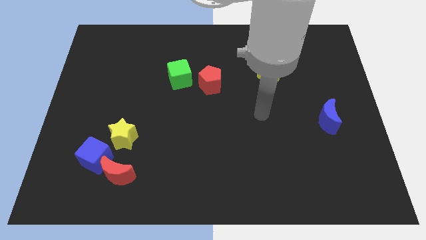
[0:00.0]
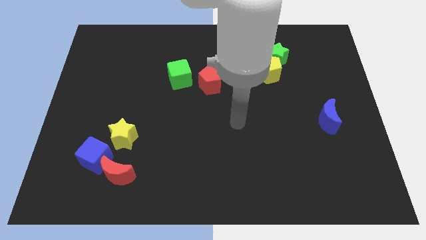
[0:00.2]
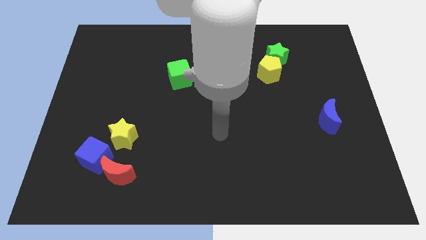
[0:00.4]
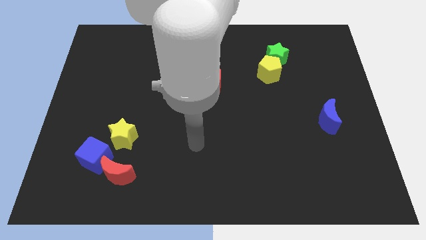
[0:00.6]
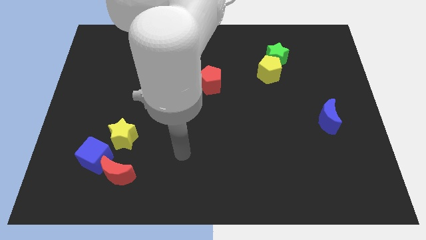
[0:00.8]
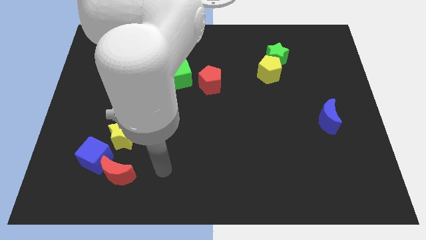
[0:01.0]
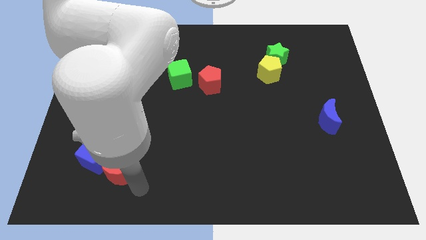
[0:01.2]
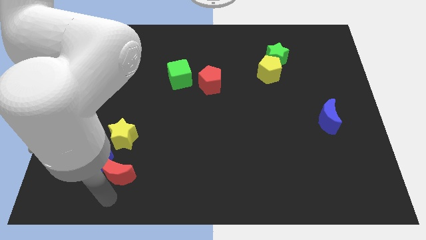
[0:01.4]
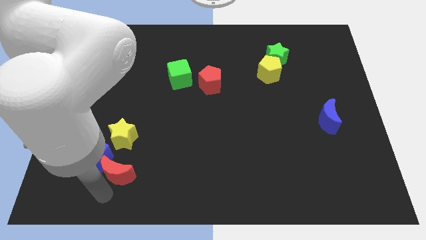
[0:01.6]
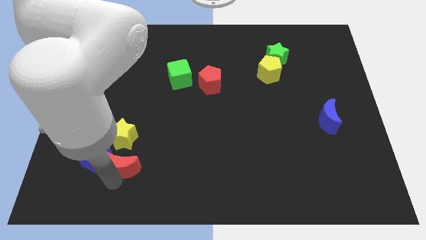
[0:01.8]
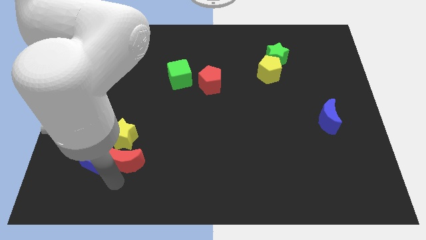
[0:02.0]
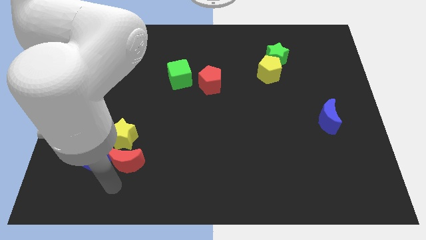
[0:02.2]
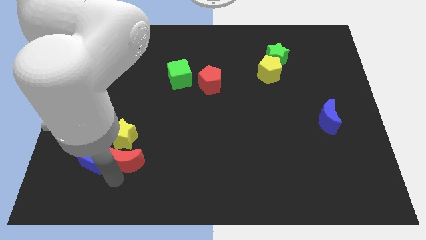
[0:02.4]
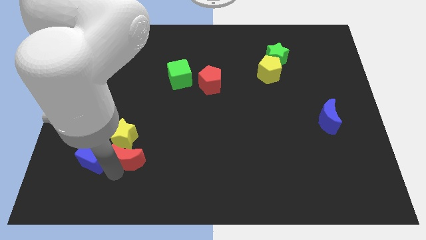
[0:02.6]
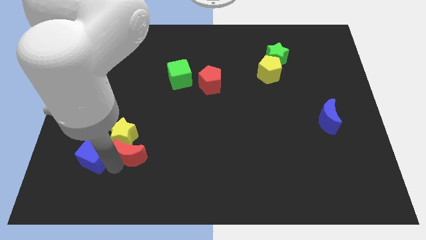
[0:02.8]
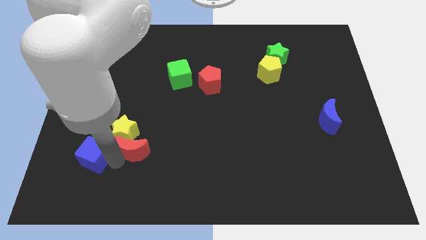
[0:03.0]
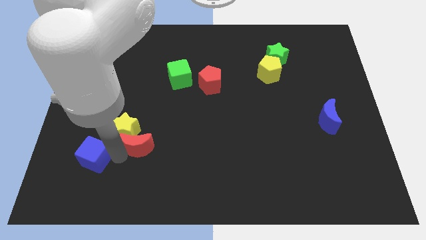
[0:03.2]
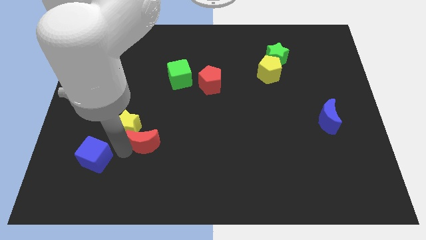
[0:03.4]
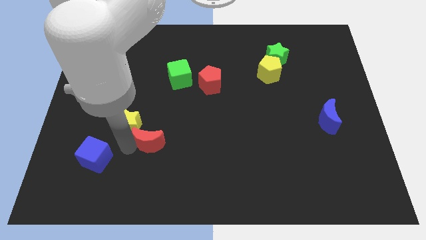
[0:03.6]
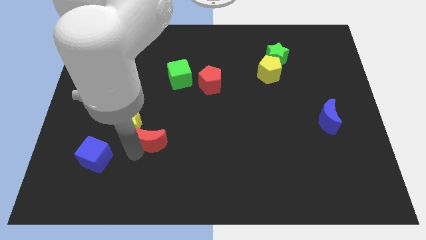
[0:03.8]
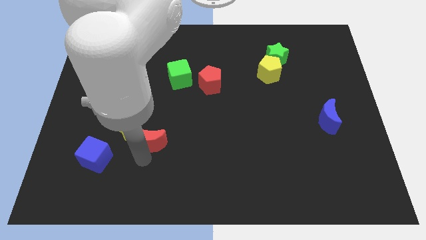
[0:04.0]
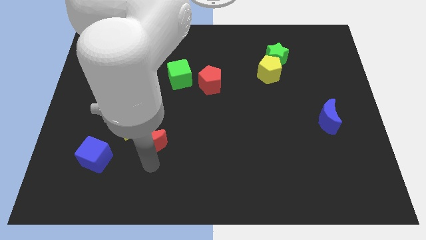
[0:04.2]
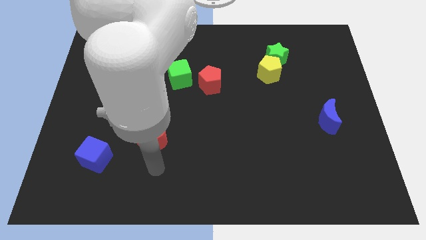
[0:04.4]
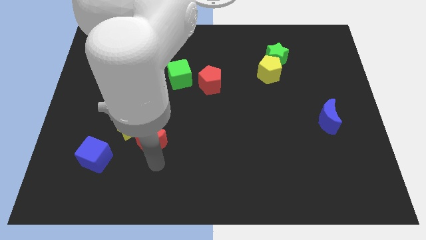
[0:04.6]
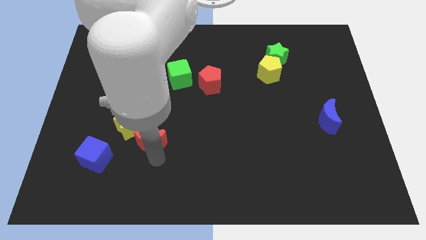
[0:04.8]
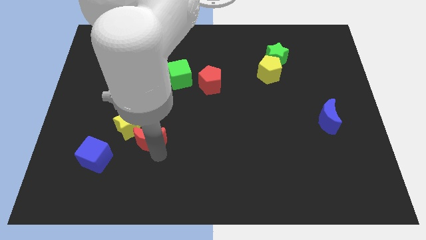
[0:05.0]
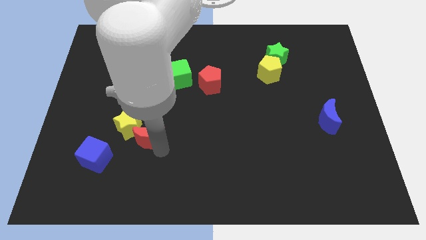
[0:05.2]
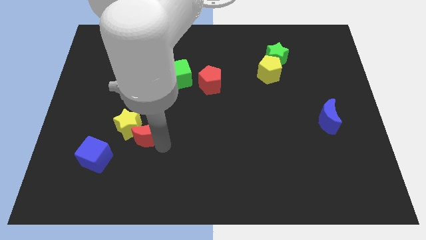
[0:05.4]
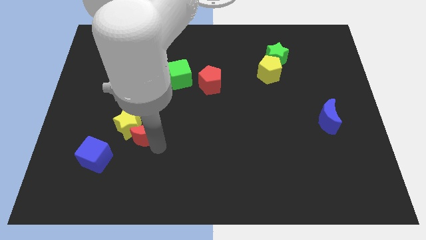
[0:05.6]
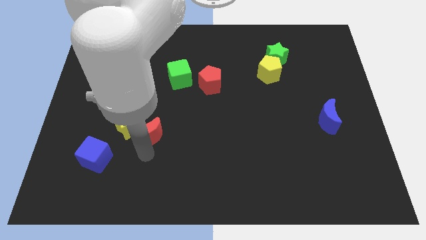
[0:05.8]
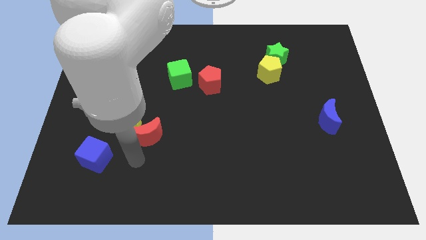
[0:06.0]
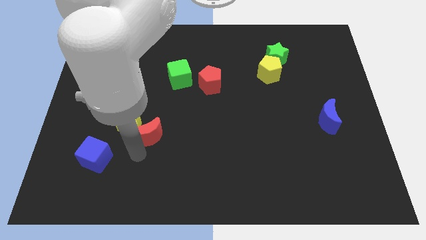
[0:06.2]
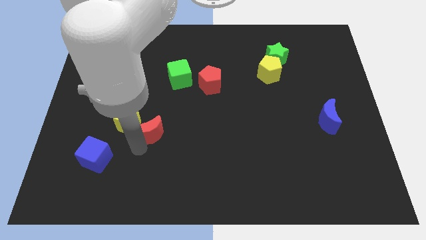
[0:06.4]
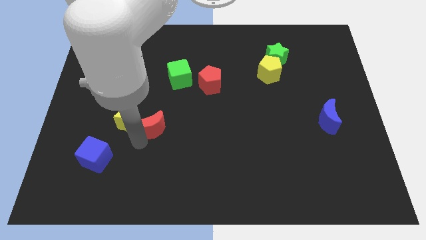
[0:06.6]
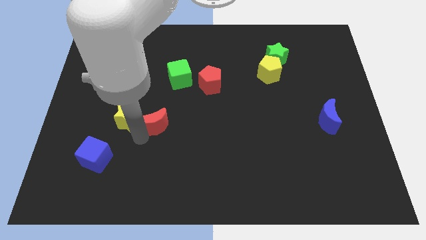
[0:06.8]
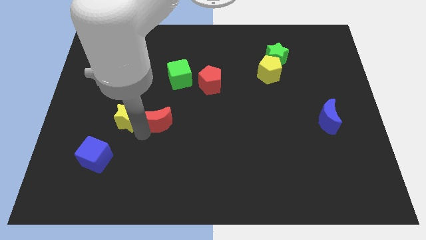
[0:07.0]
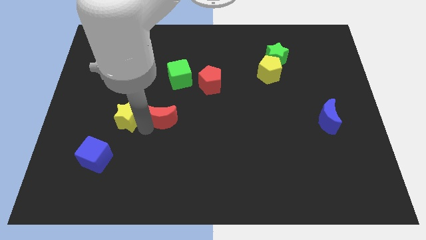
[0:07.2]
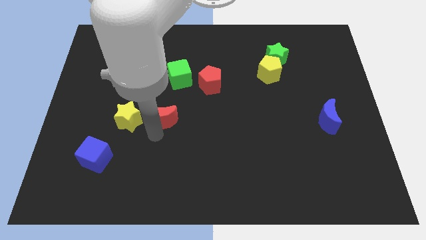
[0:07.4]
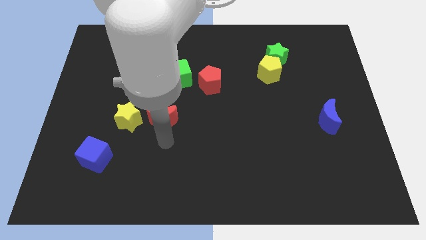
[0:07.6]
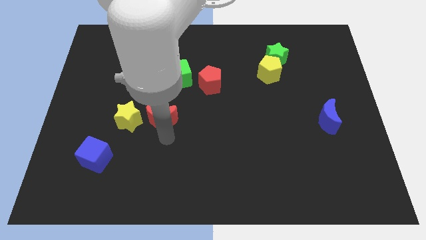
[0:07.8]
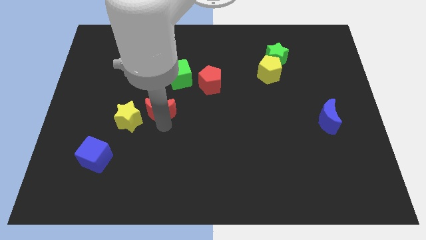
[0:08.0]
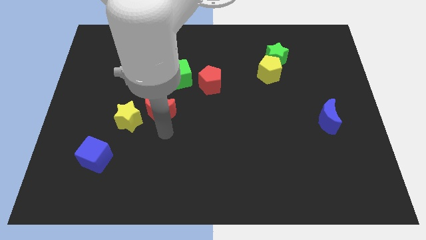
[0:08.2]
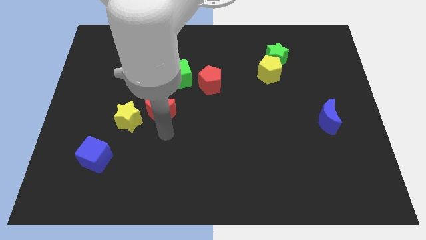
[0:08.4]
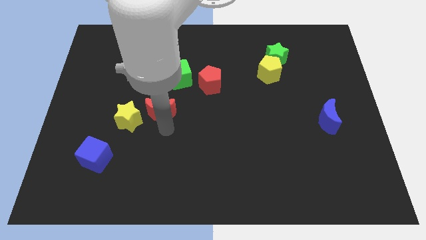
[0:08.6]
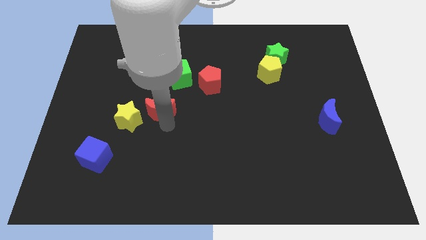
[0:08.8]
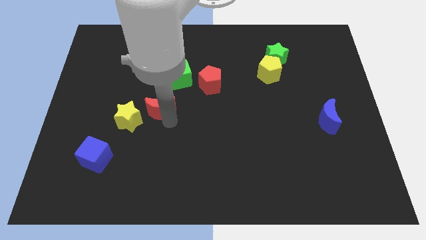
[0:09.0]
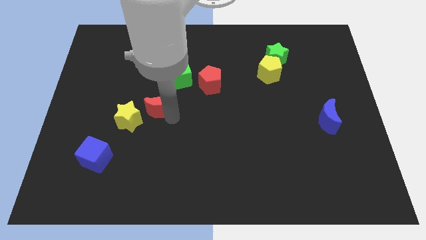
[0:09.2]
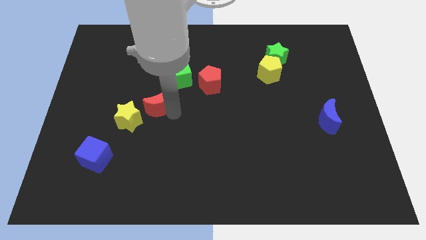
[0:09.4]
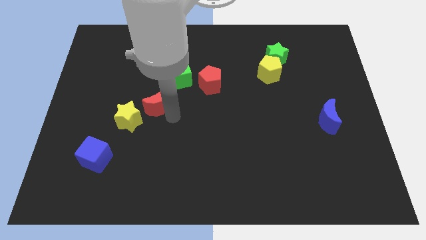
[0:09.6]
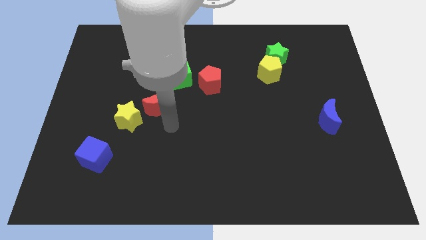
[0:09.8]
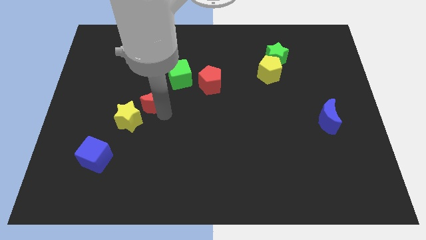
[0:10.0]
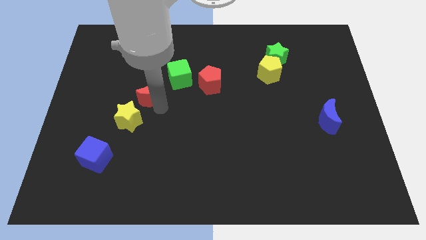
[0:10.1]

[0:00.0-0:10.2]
push the red moon upwards

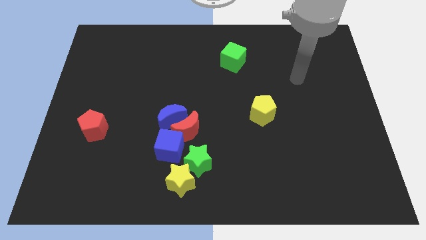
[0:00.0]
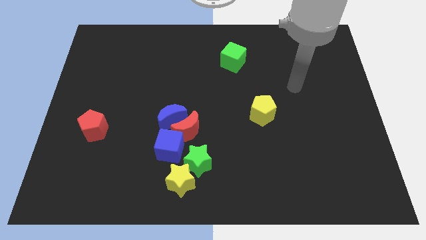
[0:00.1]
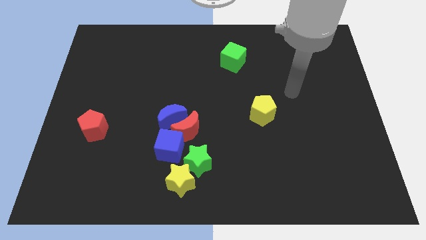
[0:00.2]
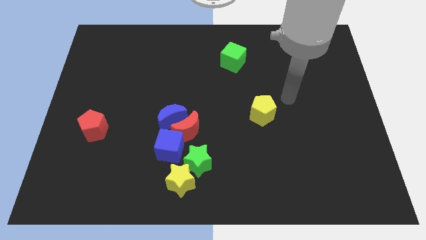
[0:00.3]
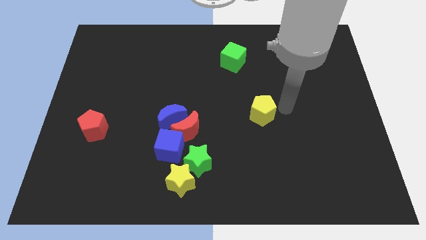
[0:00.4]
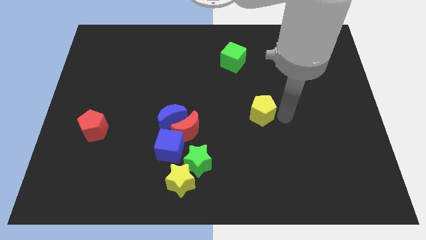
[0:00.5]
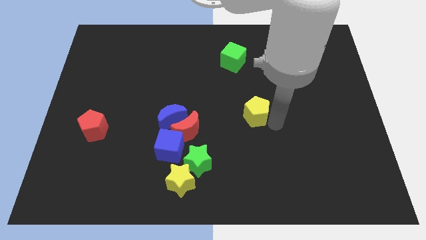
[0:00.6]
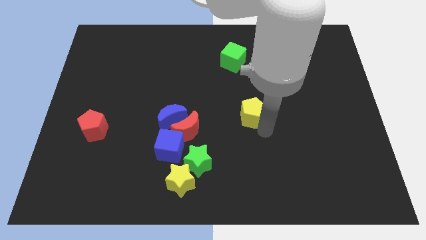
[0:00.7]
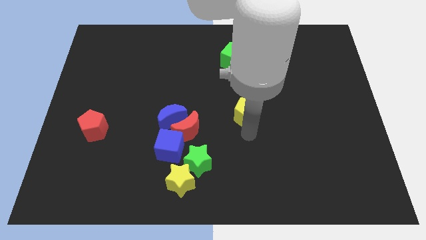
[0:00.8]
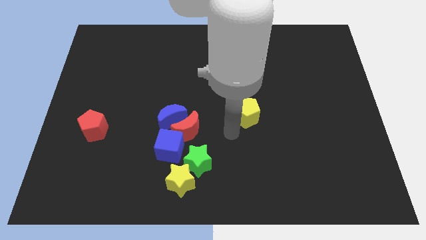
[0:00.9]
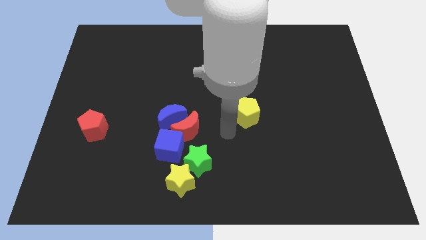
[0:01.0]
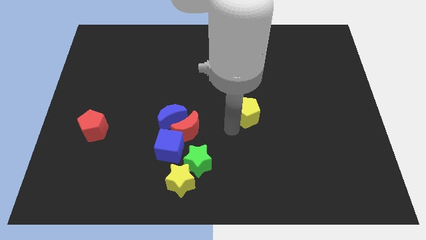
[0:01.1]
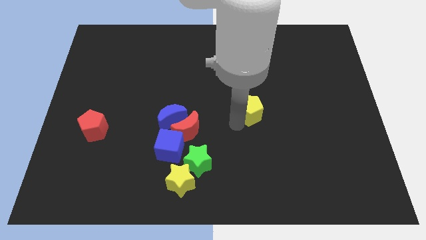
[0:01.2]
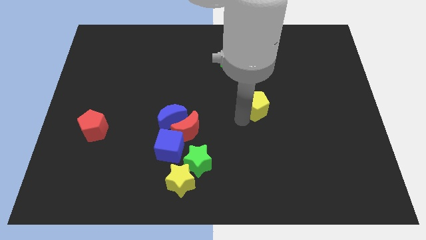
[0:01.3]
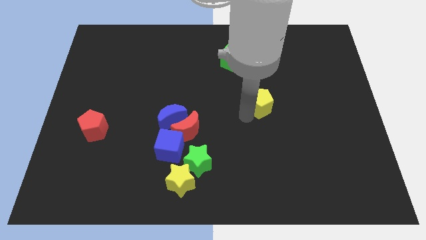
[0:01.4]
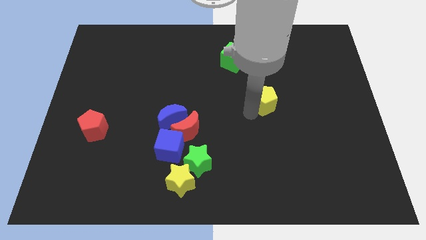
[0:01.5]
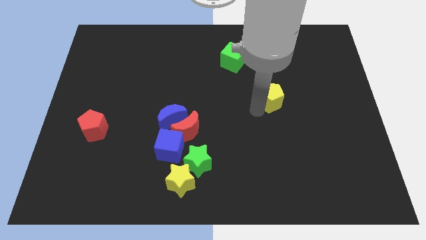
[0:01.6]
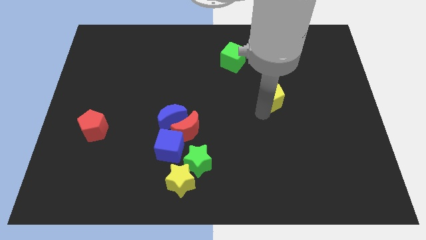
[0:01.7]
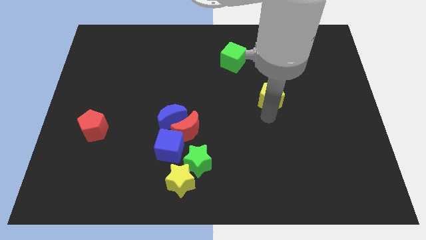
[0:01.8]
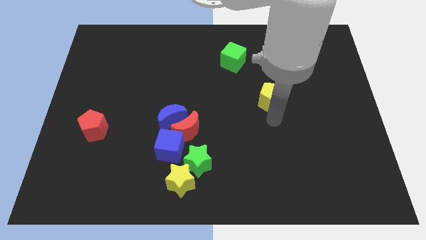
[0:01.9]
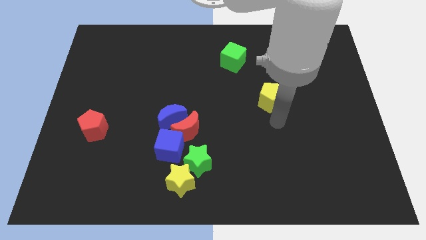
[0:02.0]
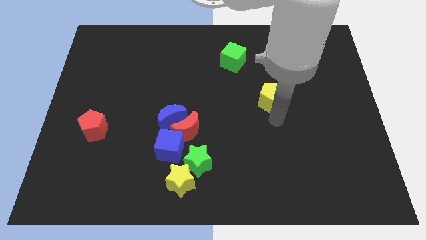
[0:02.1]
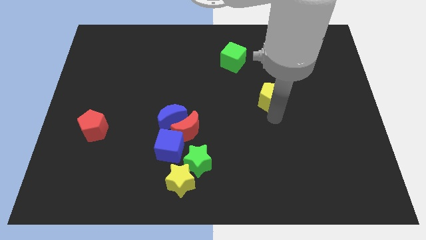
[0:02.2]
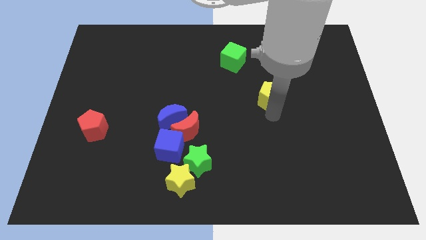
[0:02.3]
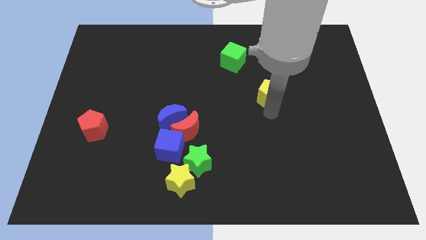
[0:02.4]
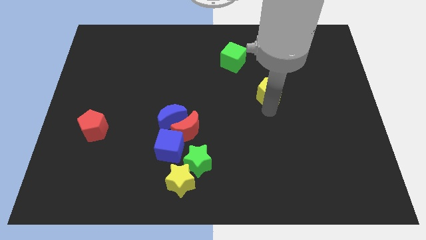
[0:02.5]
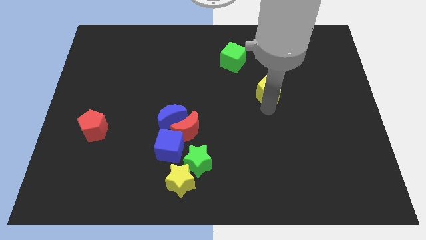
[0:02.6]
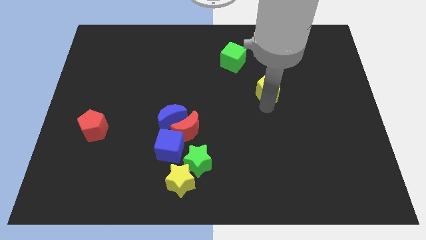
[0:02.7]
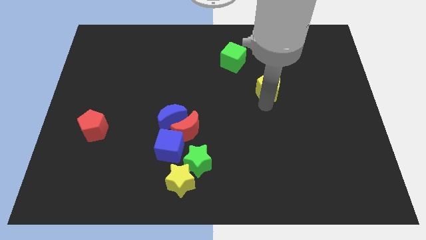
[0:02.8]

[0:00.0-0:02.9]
push the yellow pentagon a little bit upwards
